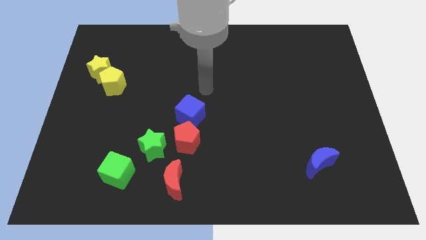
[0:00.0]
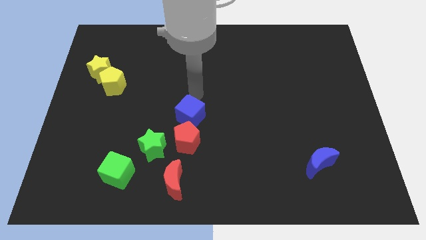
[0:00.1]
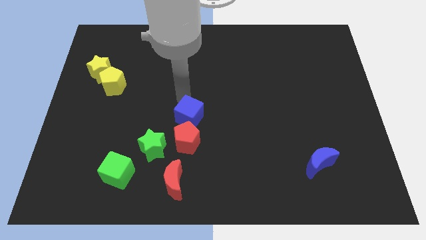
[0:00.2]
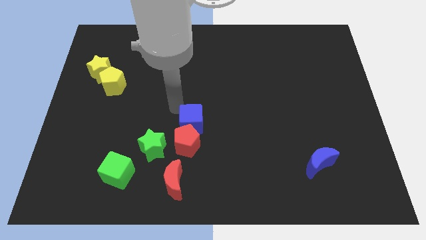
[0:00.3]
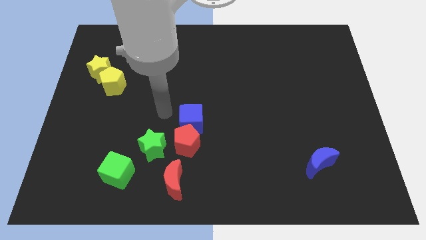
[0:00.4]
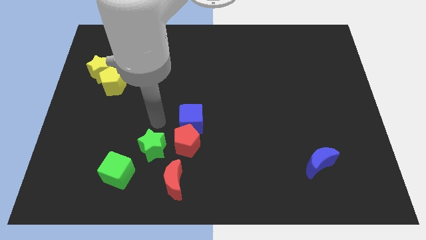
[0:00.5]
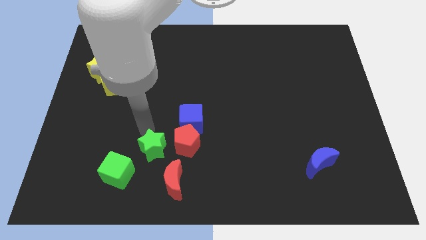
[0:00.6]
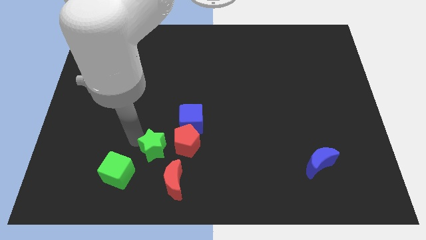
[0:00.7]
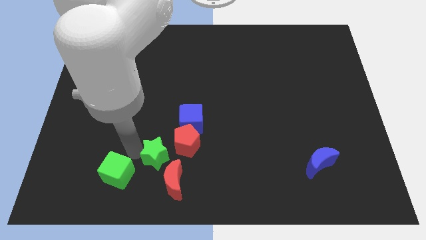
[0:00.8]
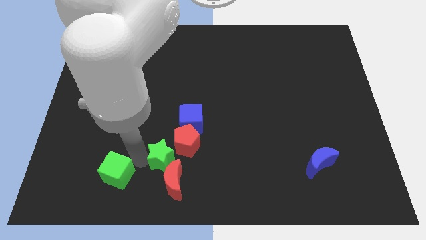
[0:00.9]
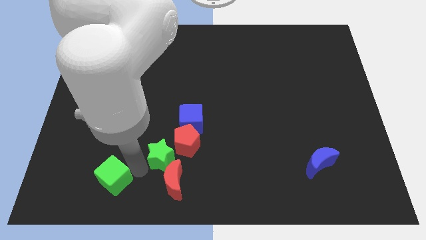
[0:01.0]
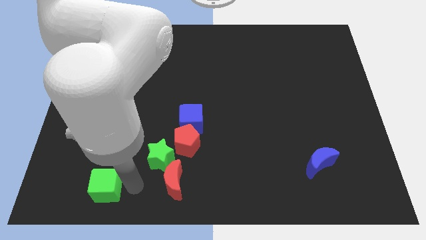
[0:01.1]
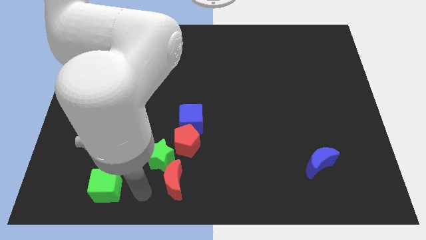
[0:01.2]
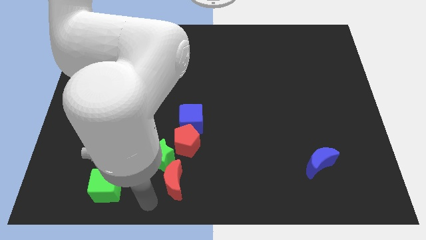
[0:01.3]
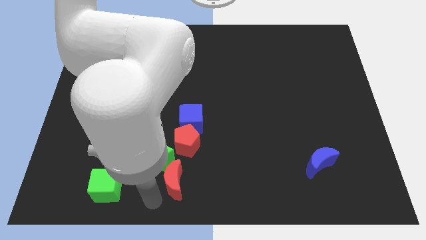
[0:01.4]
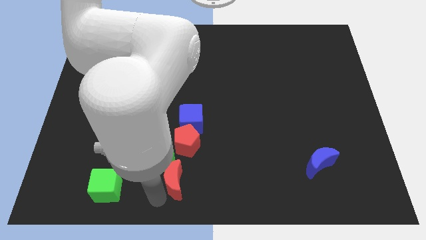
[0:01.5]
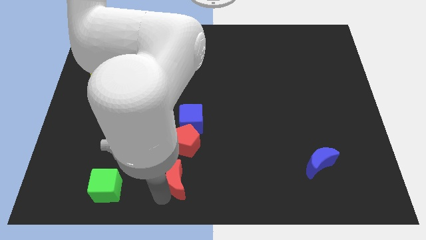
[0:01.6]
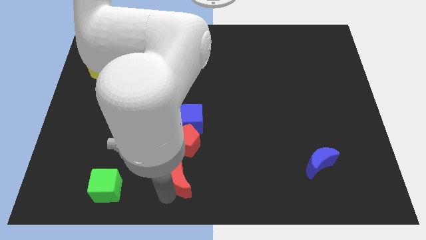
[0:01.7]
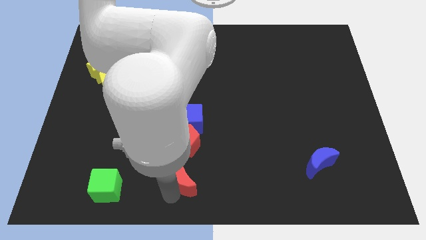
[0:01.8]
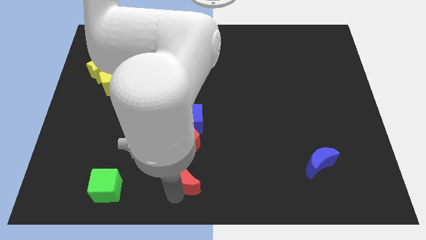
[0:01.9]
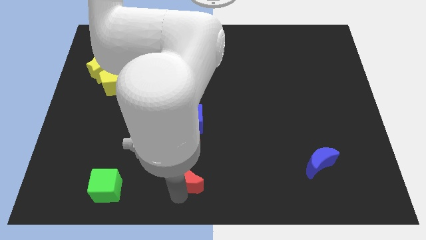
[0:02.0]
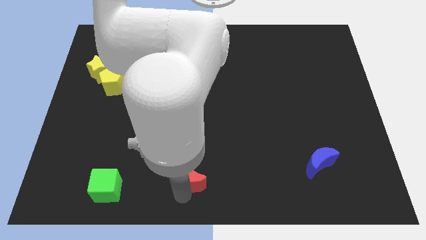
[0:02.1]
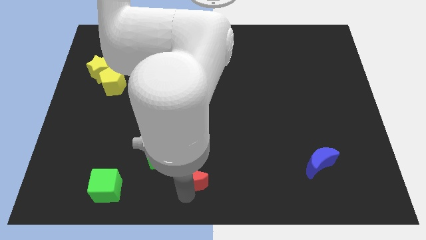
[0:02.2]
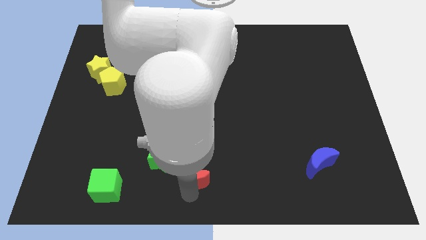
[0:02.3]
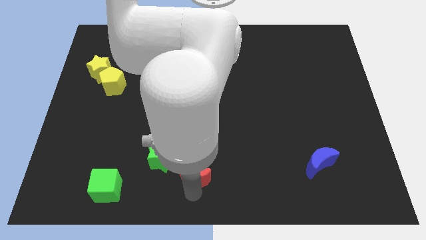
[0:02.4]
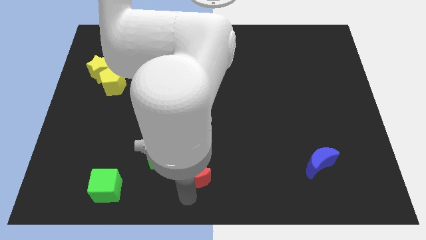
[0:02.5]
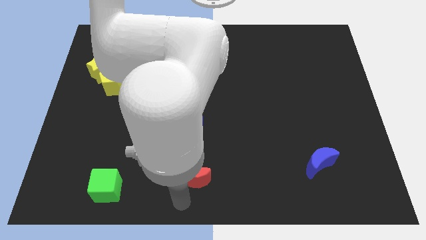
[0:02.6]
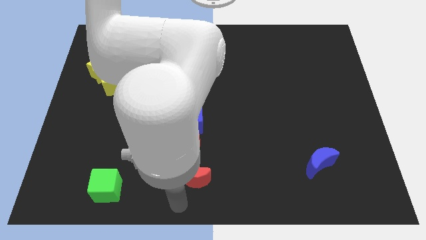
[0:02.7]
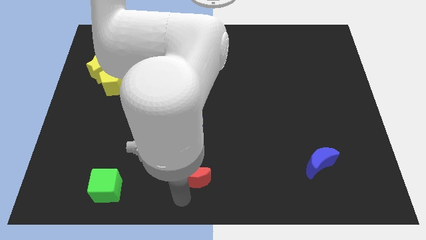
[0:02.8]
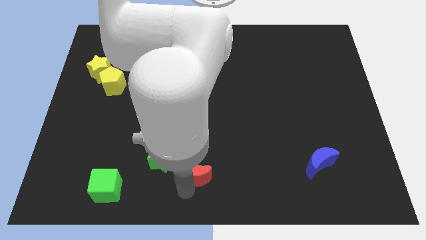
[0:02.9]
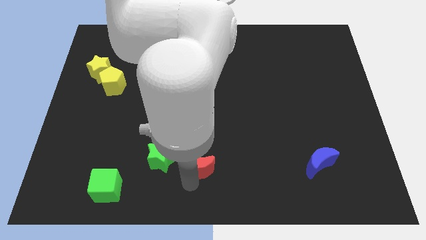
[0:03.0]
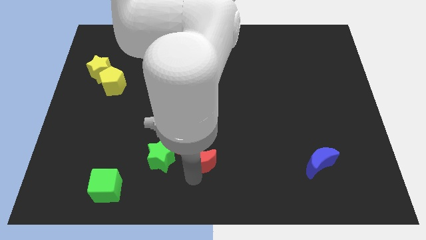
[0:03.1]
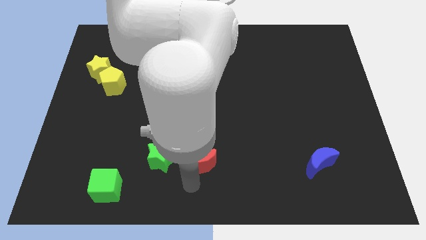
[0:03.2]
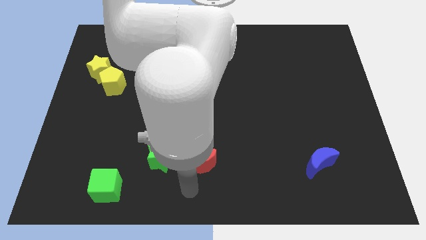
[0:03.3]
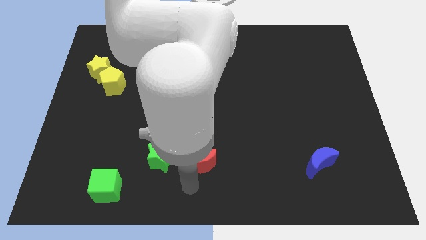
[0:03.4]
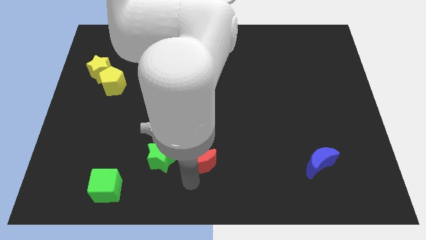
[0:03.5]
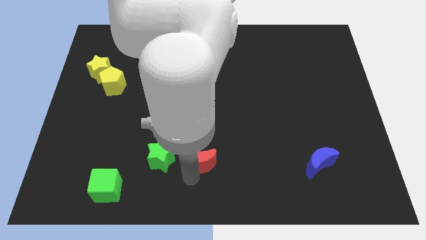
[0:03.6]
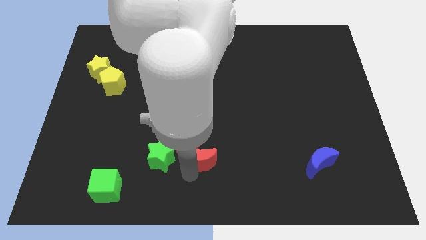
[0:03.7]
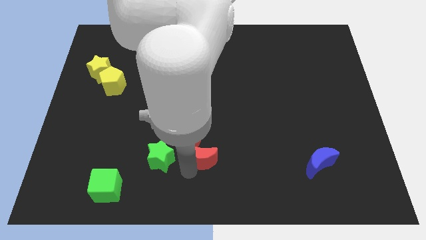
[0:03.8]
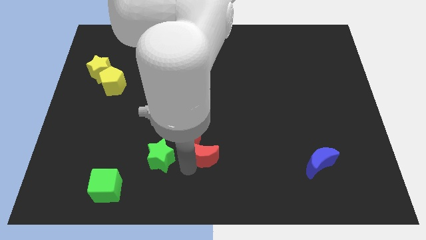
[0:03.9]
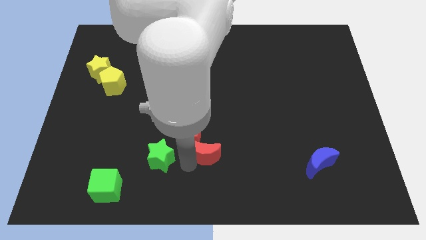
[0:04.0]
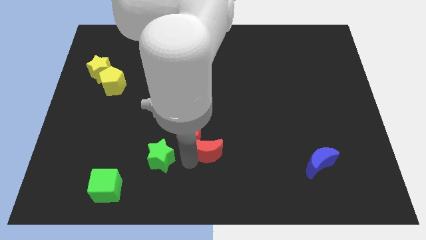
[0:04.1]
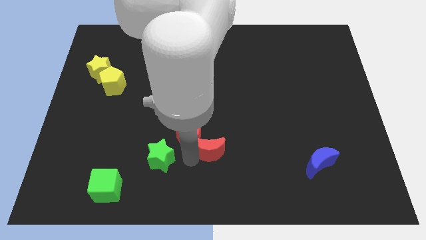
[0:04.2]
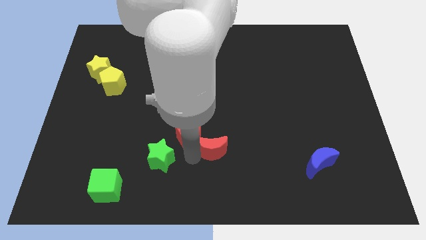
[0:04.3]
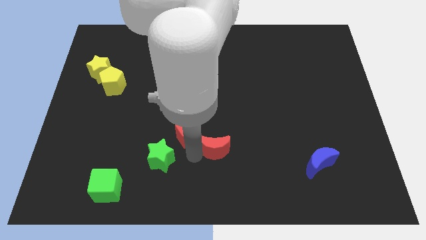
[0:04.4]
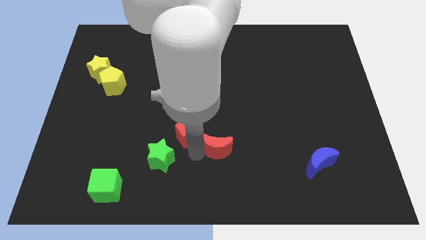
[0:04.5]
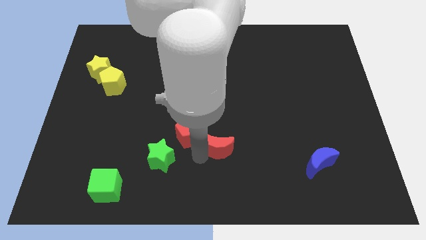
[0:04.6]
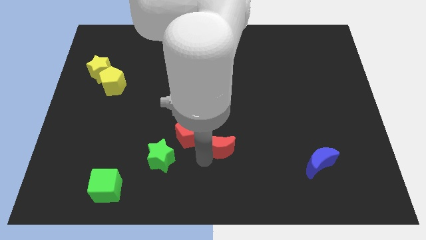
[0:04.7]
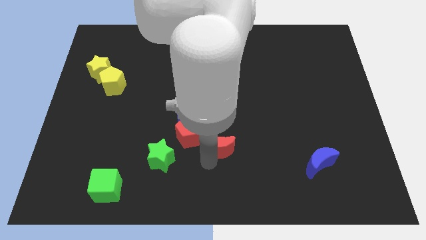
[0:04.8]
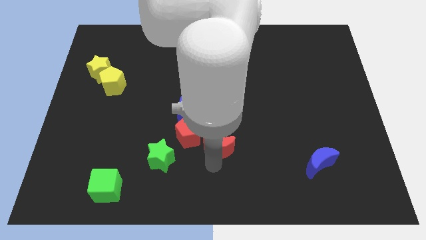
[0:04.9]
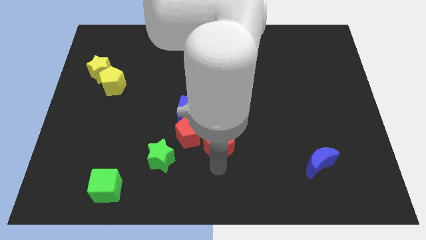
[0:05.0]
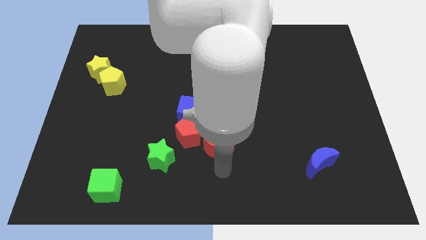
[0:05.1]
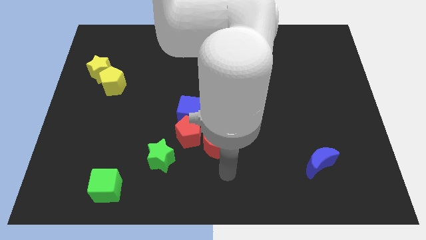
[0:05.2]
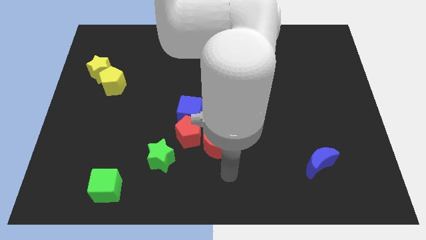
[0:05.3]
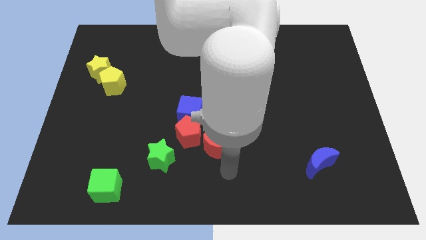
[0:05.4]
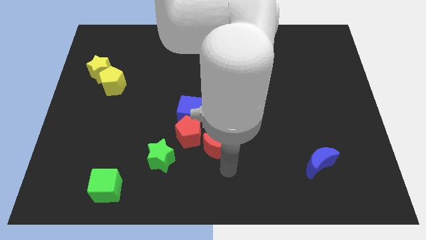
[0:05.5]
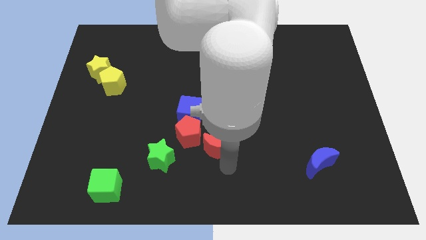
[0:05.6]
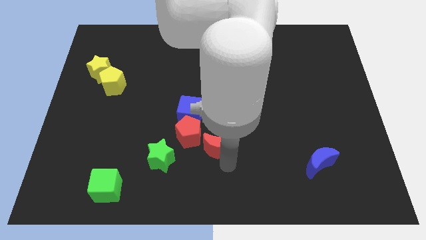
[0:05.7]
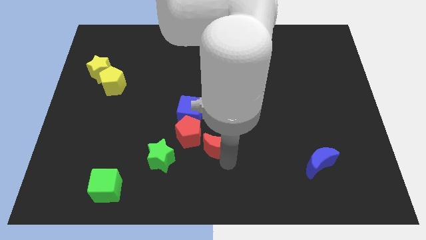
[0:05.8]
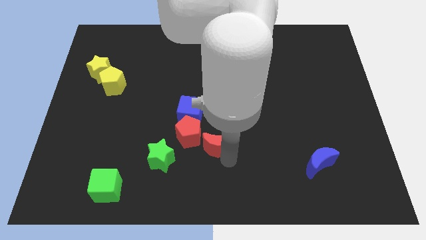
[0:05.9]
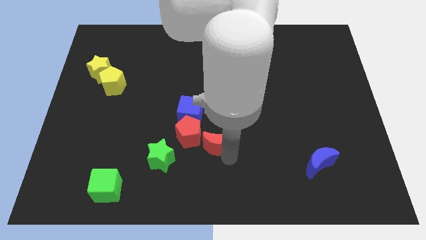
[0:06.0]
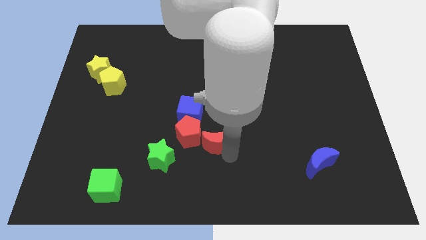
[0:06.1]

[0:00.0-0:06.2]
move the red moon to the middle
